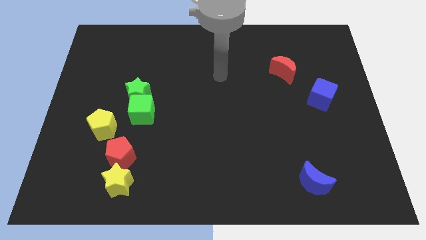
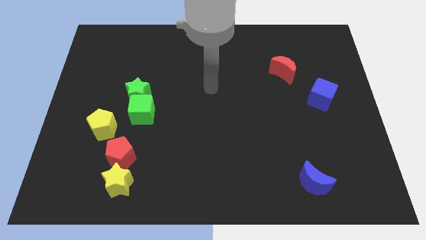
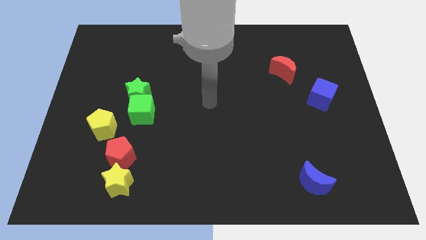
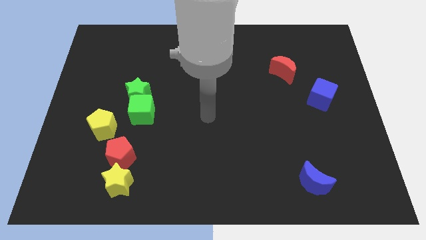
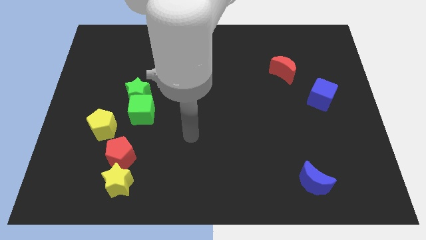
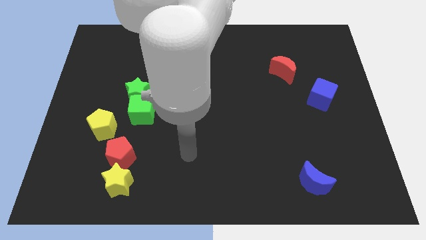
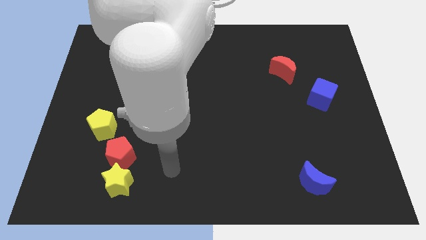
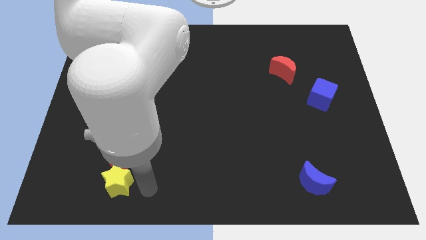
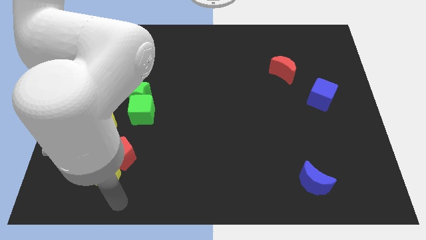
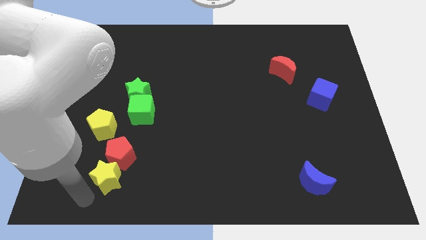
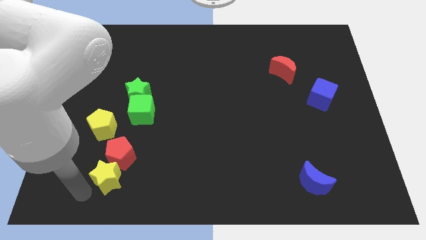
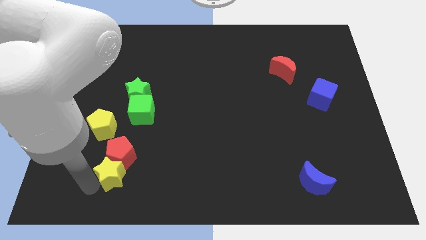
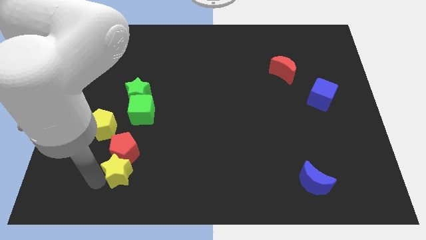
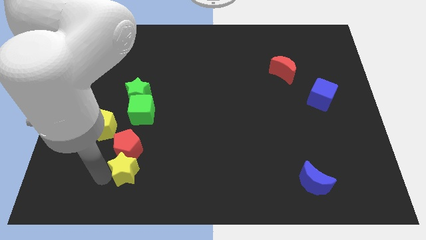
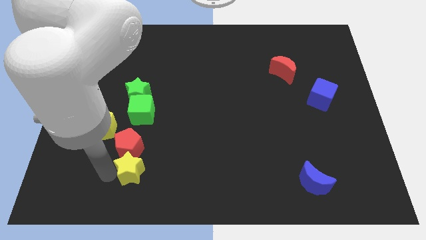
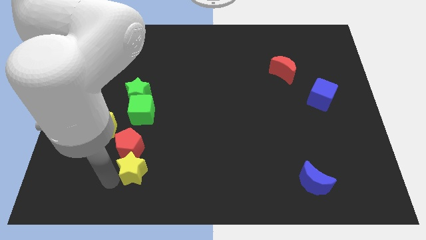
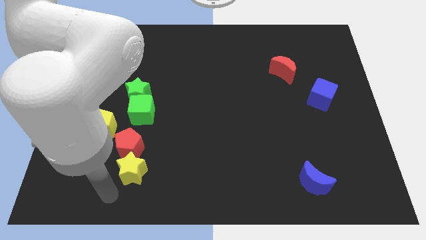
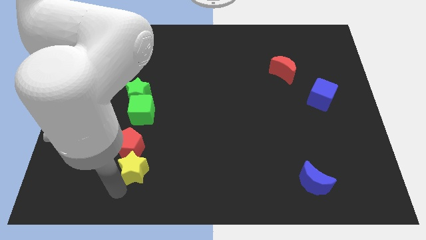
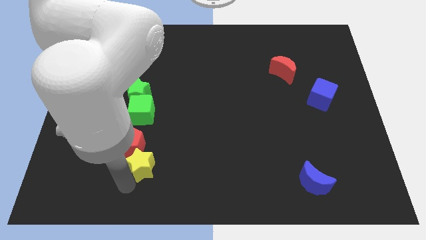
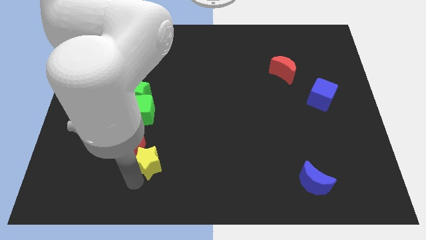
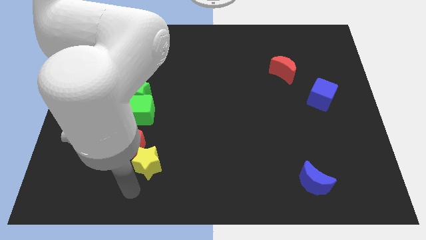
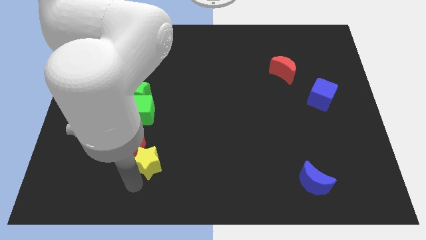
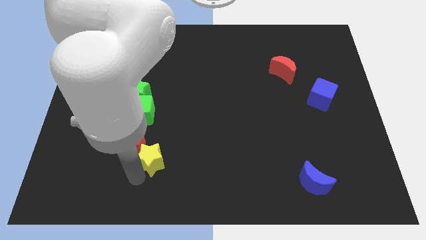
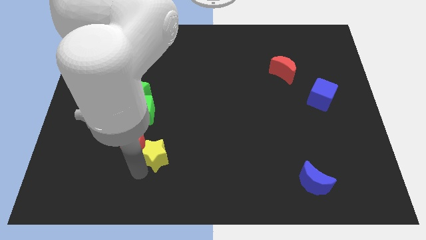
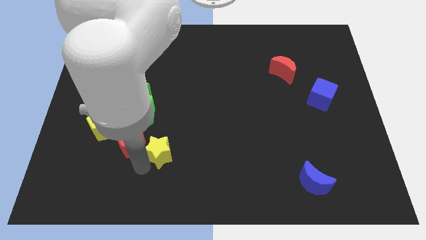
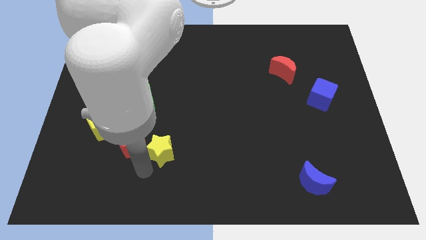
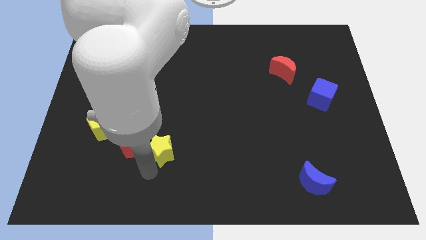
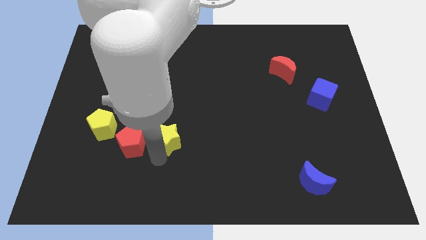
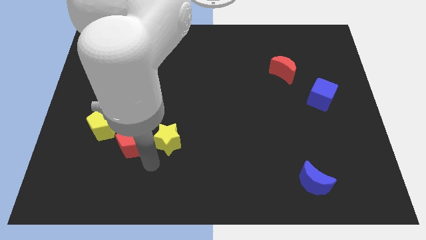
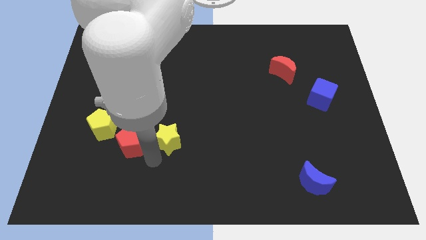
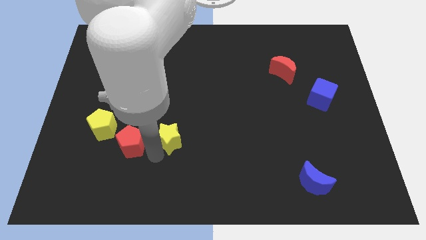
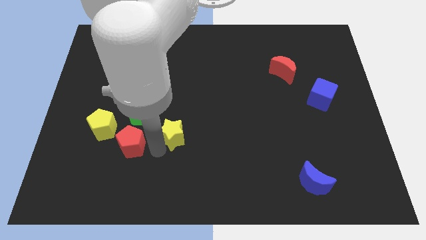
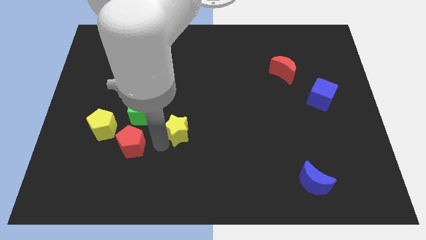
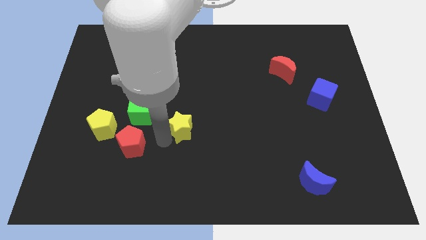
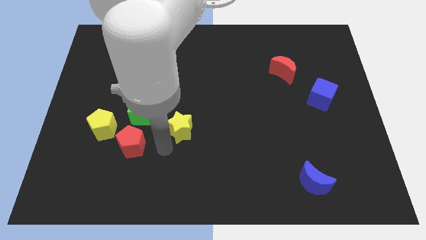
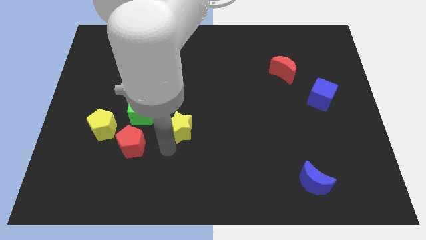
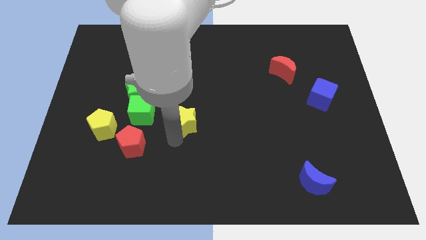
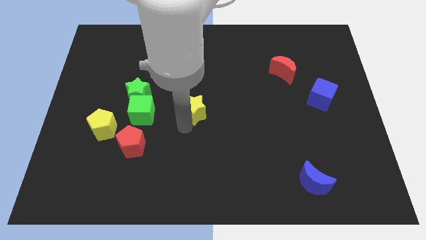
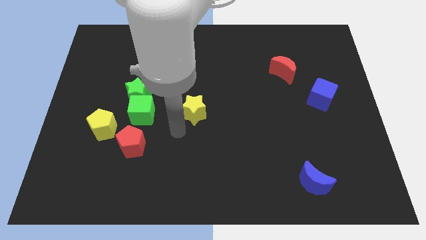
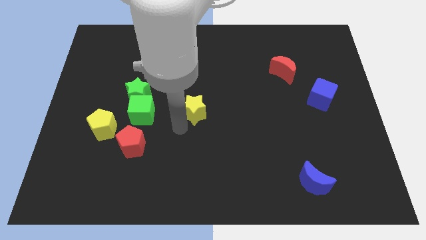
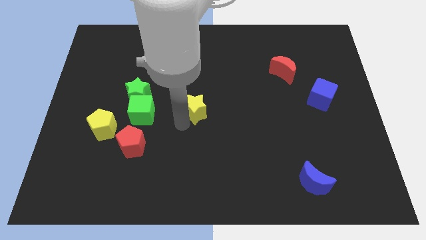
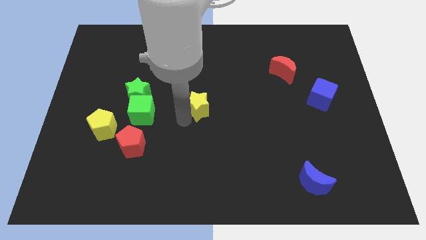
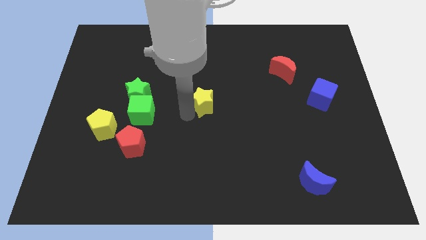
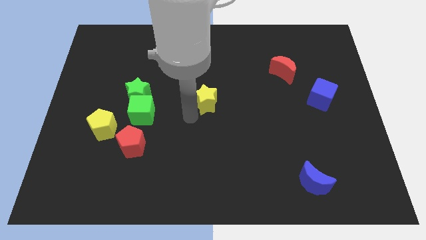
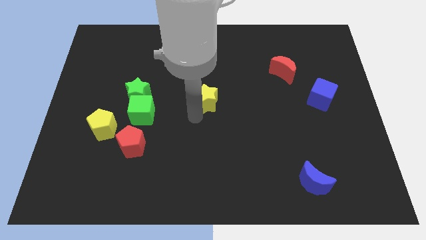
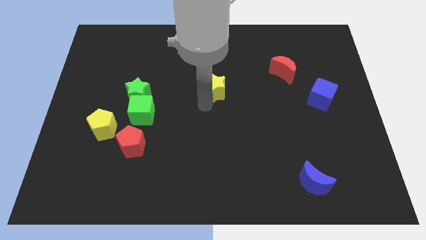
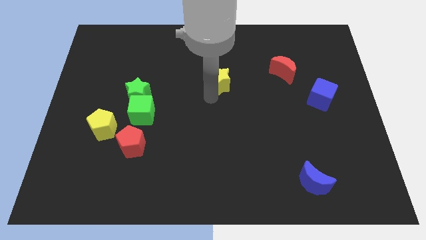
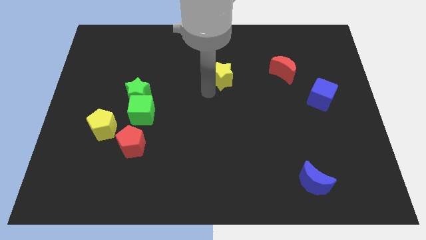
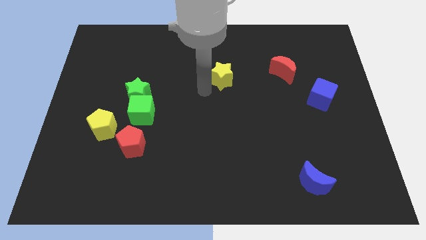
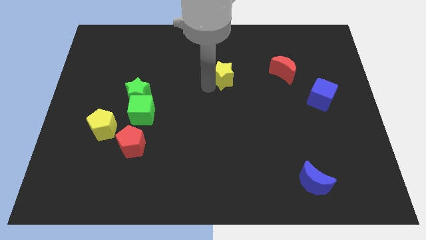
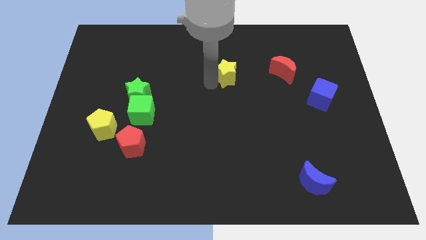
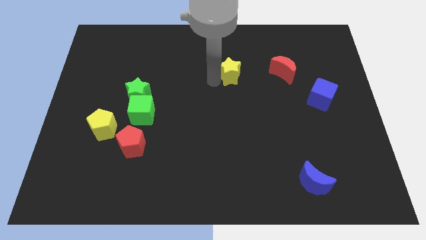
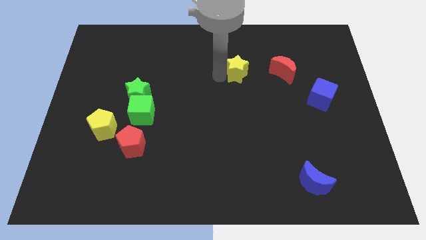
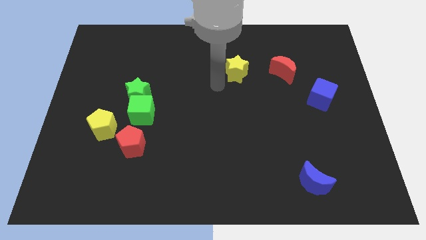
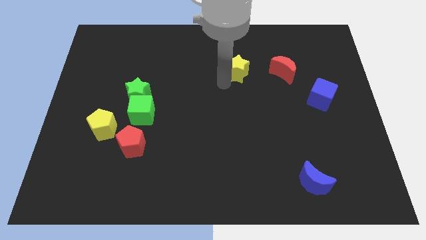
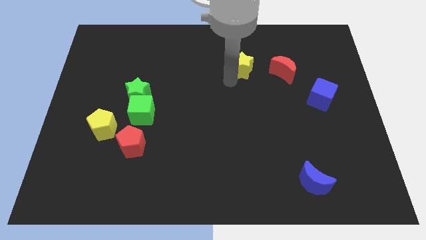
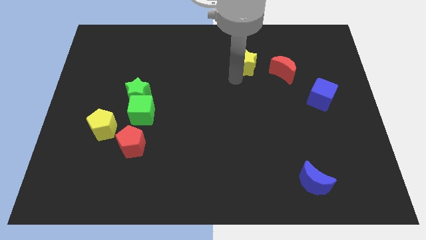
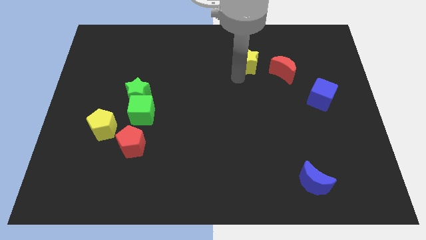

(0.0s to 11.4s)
slide the yellow star to the top left of the red moon

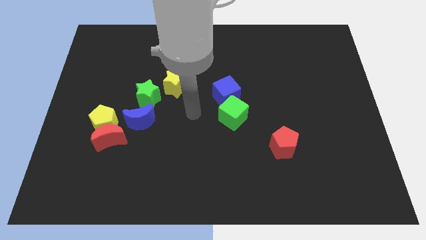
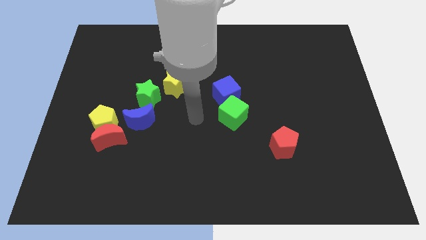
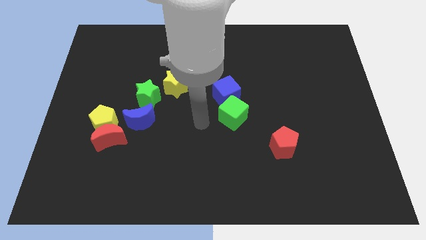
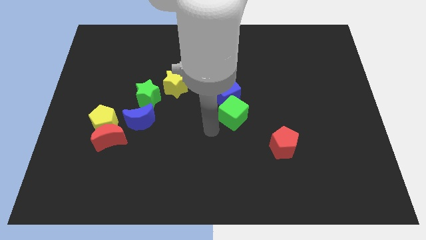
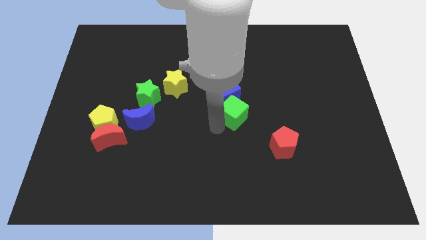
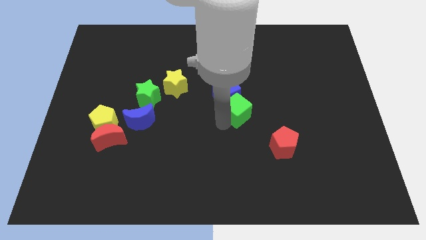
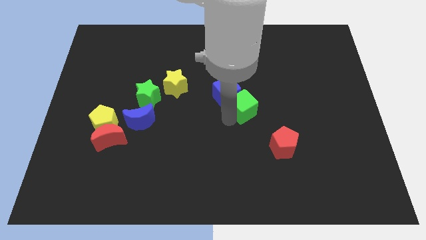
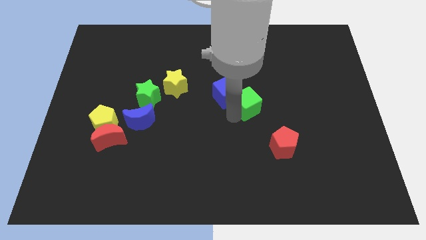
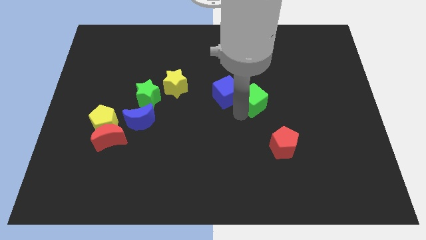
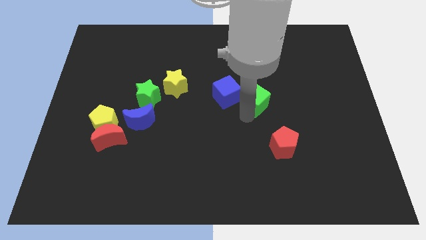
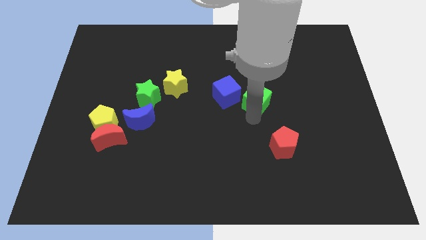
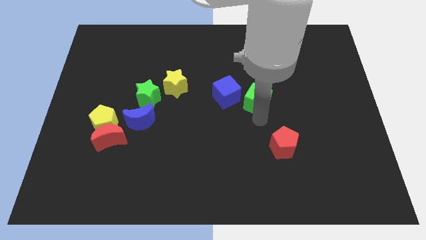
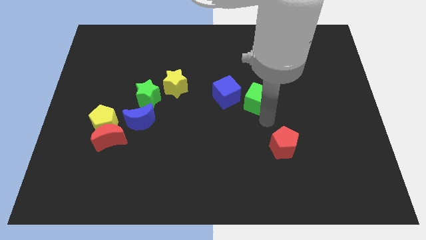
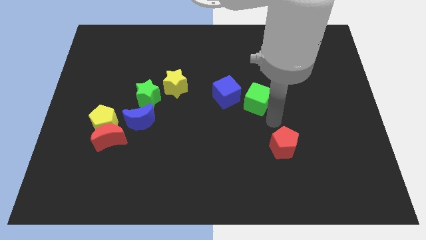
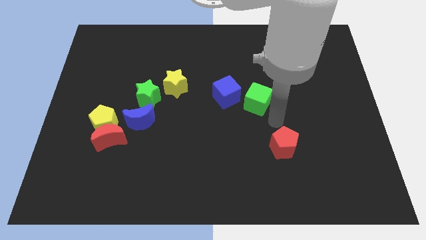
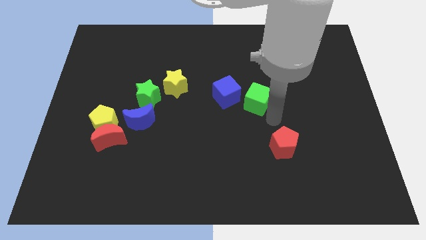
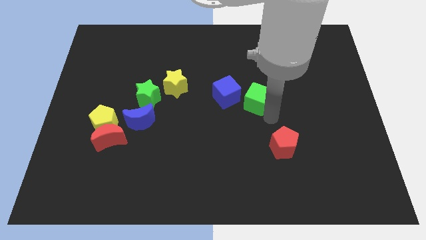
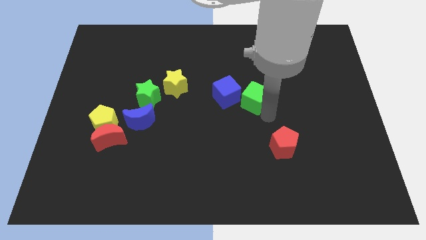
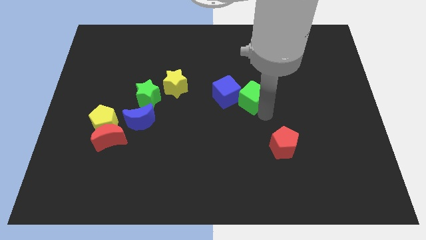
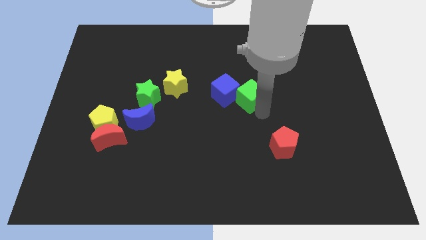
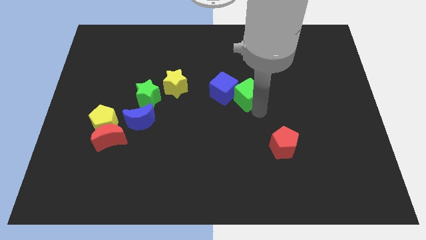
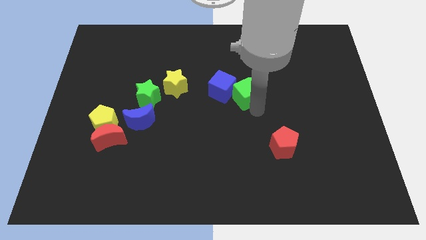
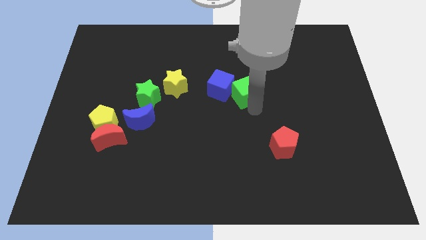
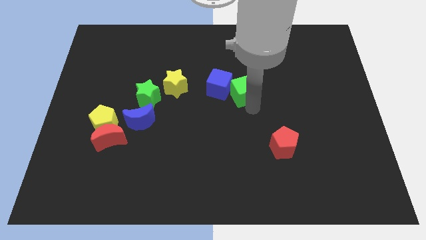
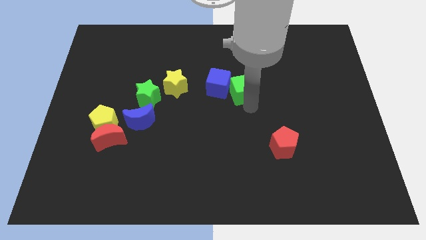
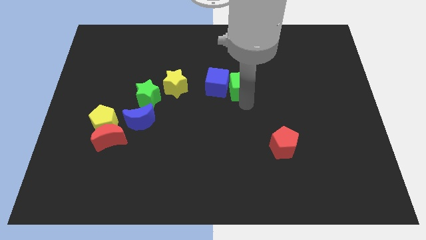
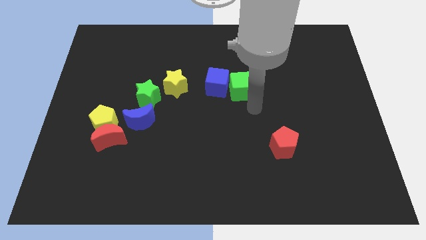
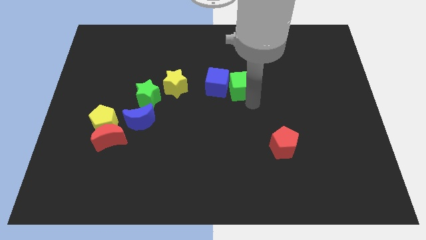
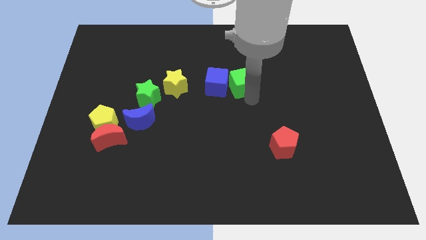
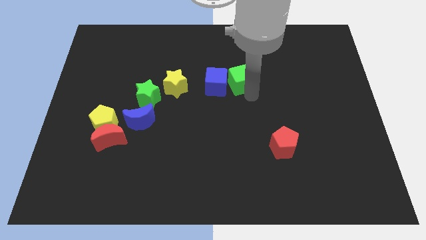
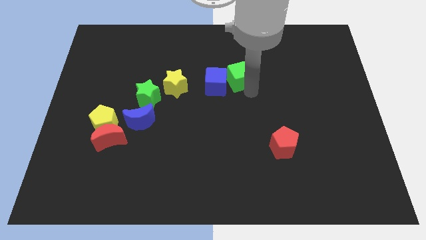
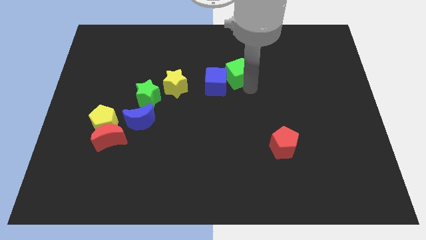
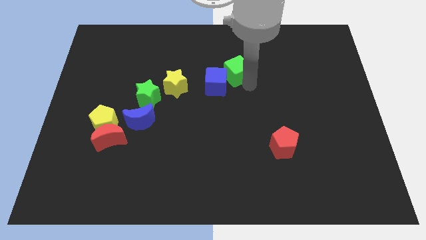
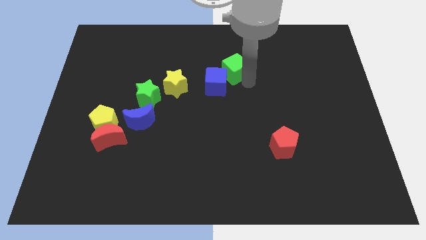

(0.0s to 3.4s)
move the green cube to the top of the blue cube
